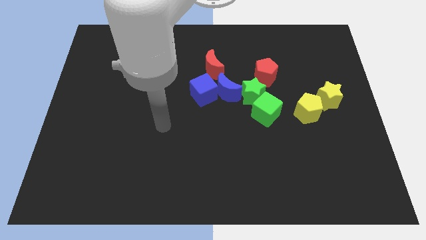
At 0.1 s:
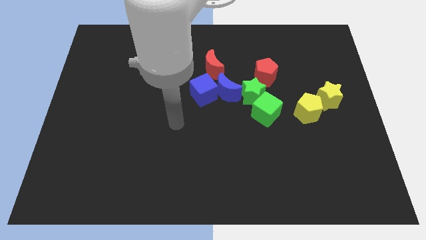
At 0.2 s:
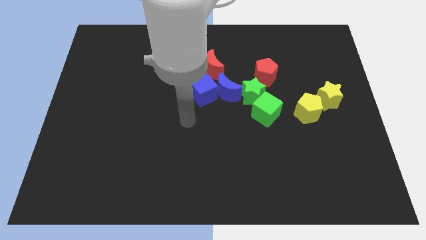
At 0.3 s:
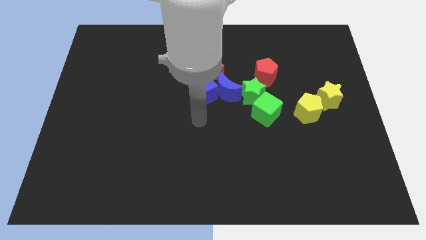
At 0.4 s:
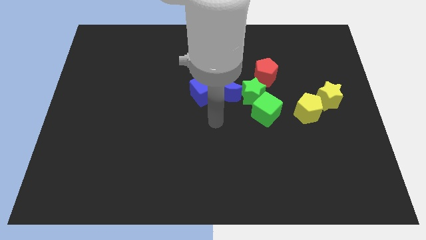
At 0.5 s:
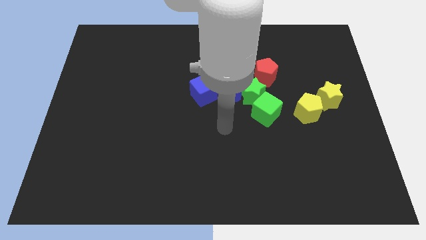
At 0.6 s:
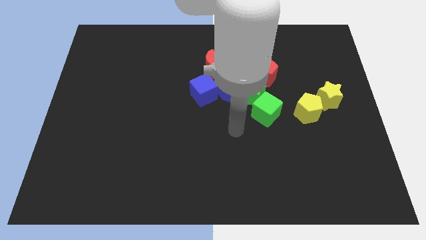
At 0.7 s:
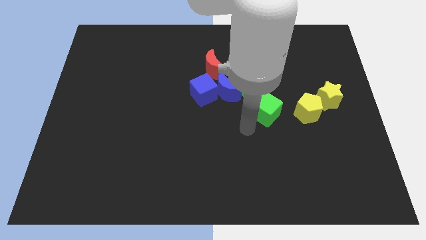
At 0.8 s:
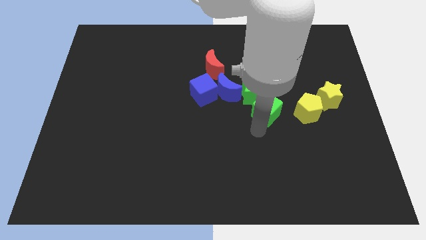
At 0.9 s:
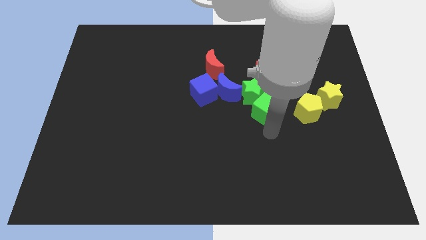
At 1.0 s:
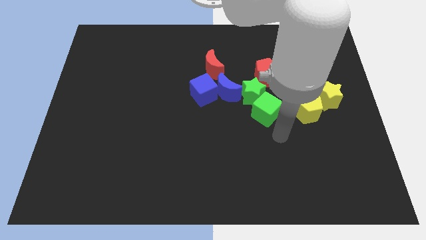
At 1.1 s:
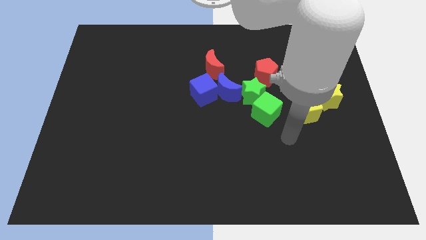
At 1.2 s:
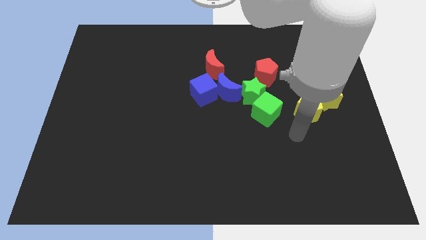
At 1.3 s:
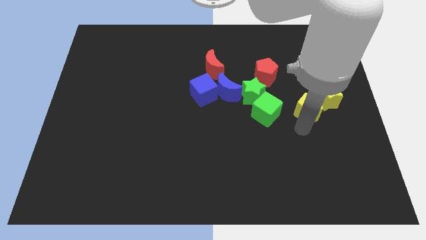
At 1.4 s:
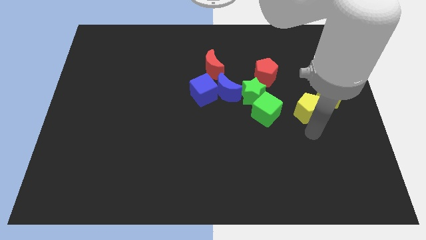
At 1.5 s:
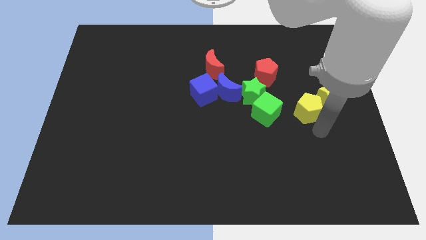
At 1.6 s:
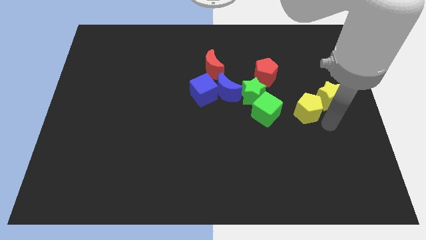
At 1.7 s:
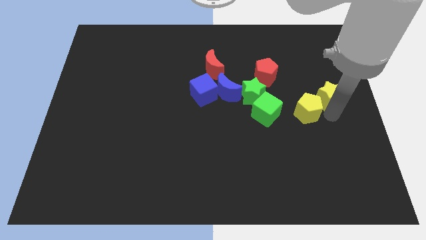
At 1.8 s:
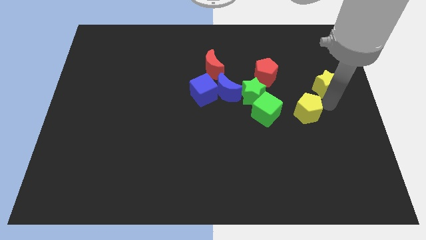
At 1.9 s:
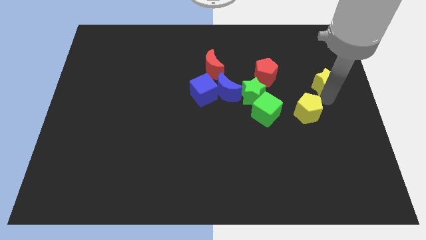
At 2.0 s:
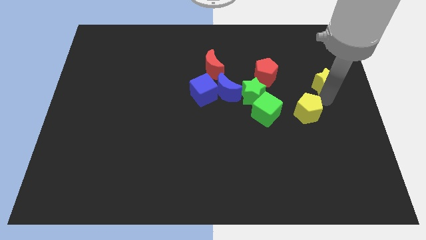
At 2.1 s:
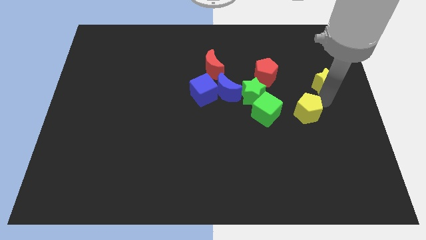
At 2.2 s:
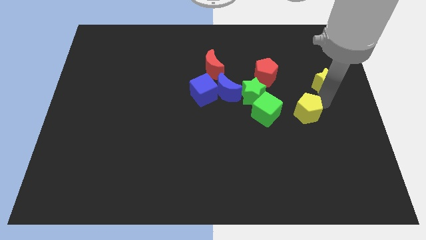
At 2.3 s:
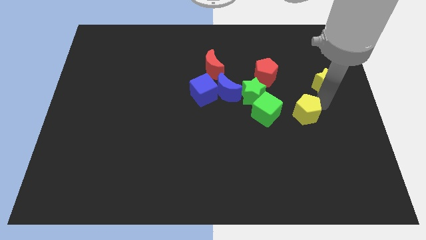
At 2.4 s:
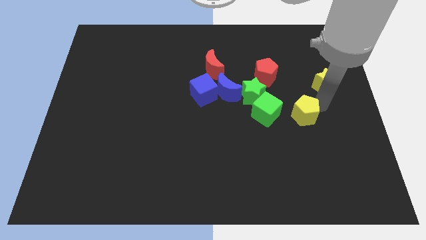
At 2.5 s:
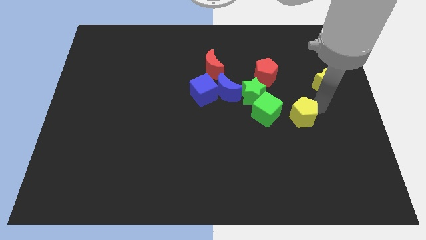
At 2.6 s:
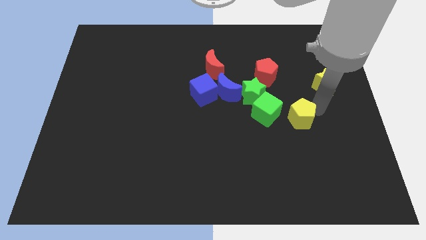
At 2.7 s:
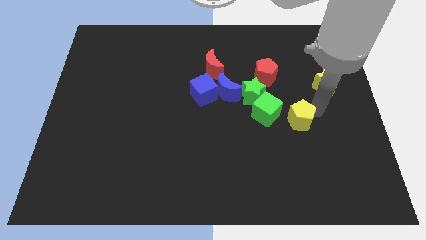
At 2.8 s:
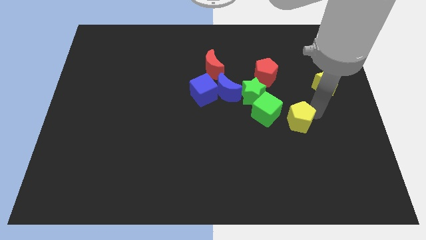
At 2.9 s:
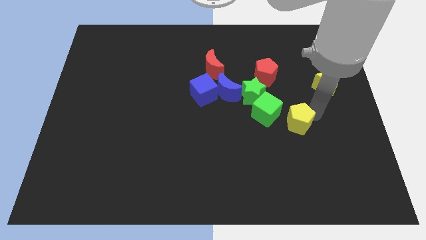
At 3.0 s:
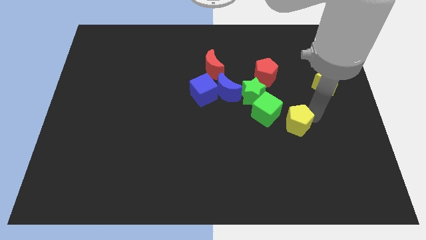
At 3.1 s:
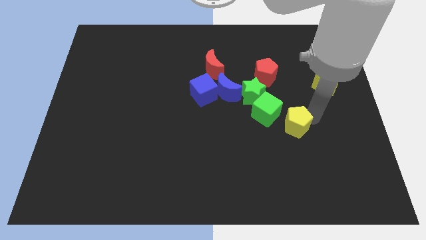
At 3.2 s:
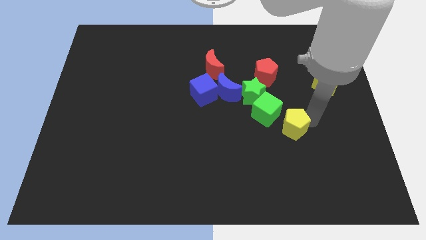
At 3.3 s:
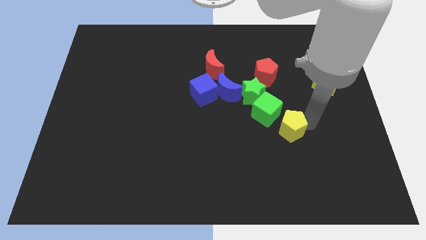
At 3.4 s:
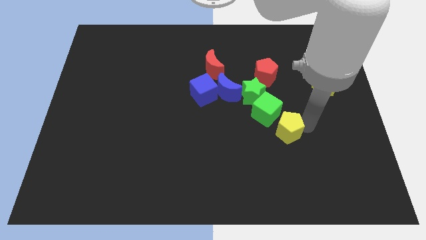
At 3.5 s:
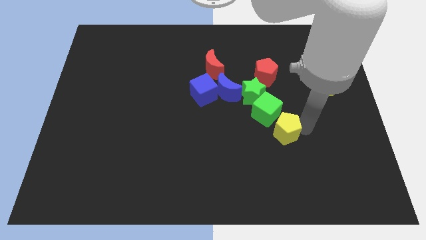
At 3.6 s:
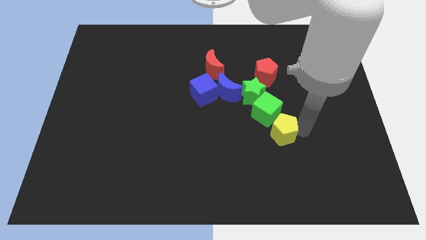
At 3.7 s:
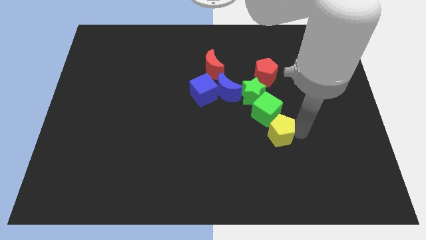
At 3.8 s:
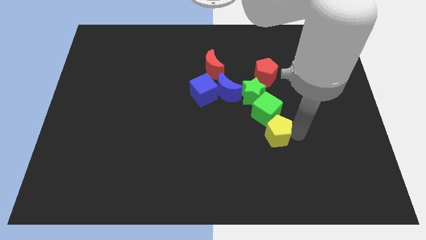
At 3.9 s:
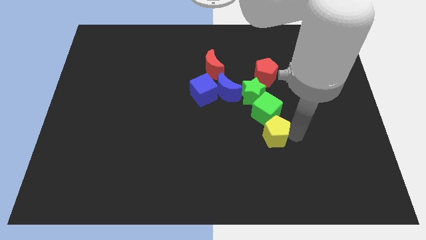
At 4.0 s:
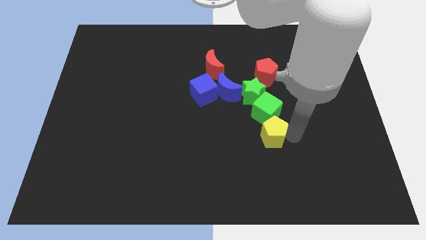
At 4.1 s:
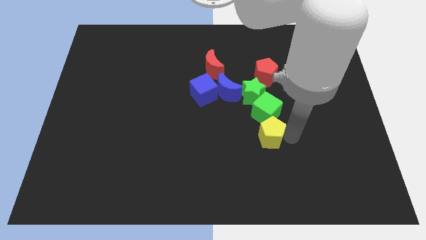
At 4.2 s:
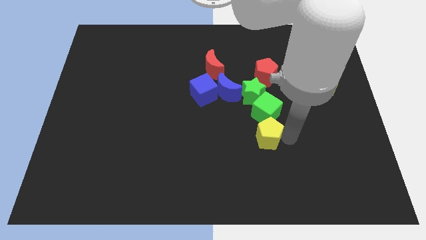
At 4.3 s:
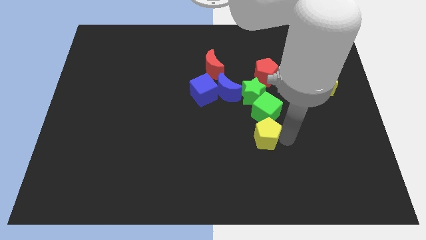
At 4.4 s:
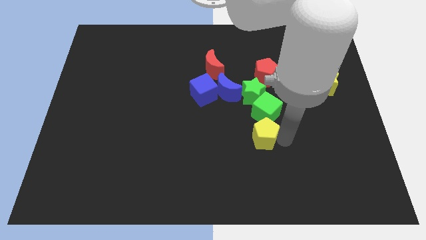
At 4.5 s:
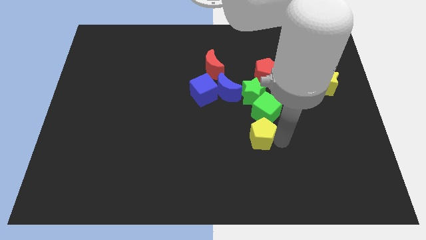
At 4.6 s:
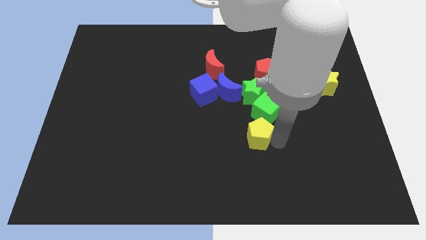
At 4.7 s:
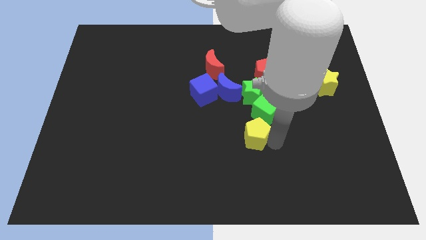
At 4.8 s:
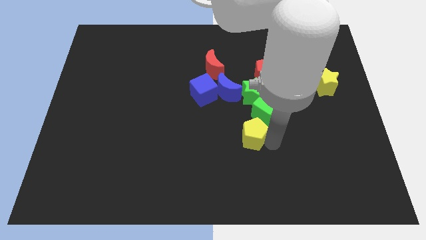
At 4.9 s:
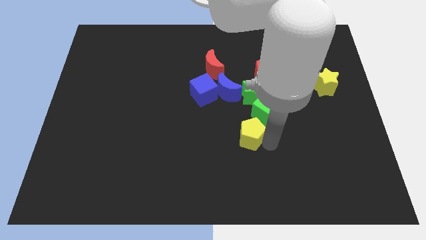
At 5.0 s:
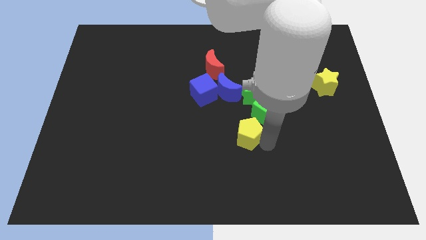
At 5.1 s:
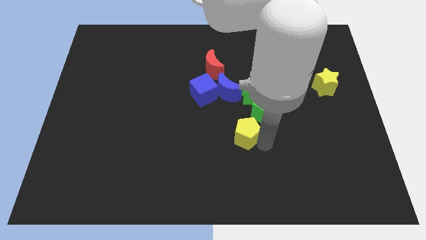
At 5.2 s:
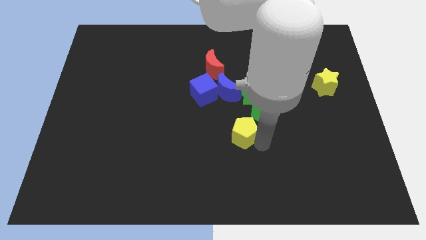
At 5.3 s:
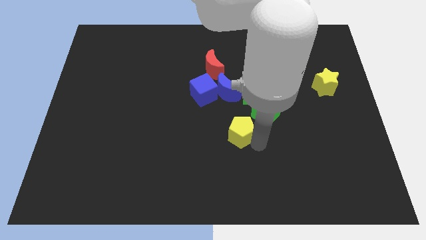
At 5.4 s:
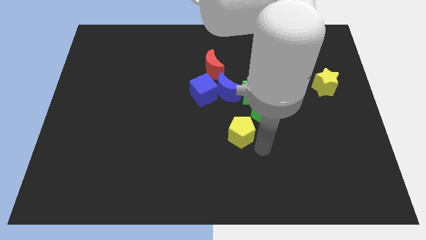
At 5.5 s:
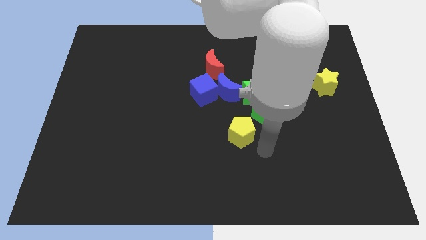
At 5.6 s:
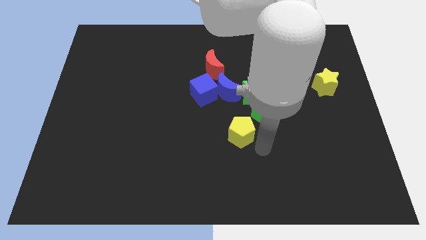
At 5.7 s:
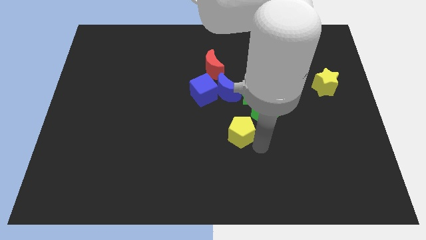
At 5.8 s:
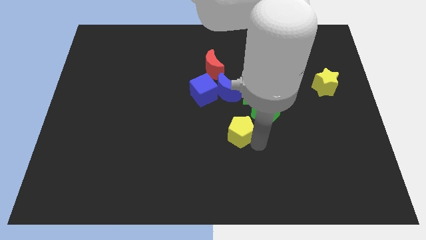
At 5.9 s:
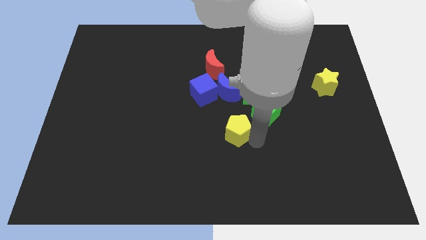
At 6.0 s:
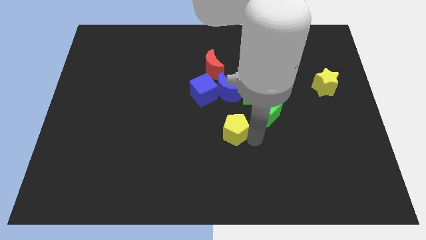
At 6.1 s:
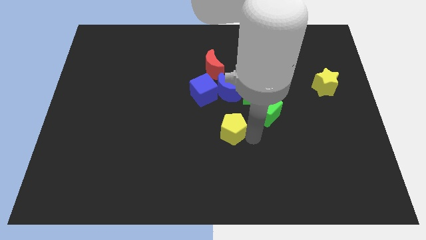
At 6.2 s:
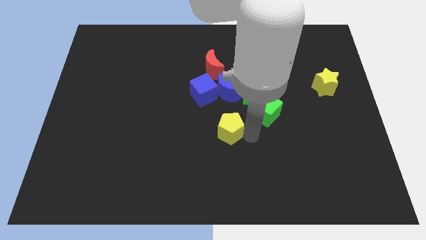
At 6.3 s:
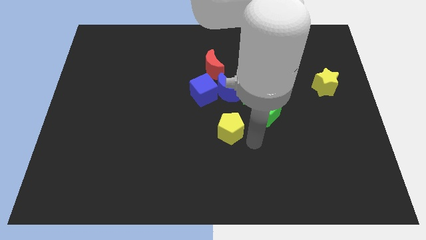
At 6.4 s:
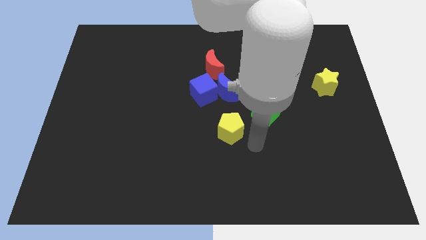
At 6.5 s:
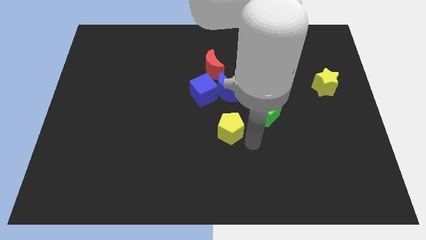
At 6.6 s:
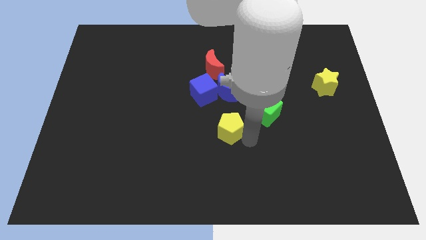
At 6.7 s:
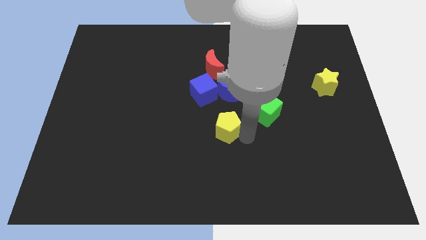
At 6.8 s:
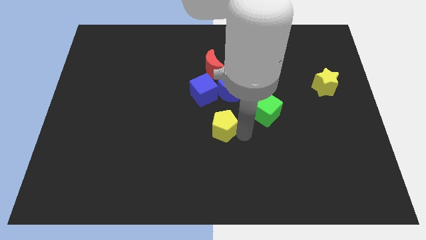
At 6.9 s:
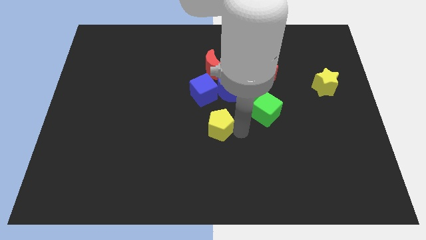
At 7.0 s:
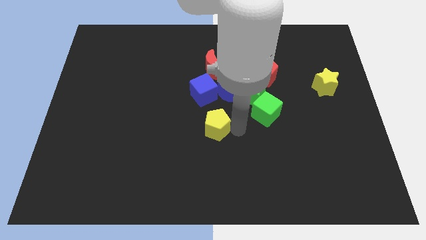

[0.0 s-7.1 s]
slide the yellow pentagon left

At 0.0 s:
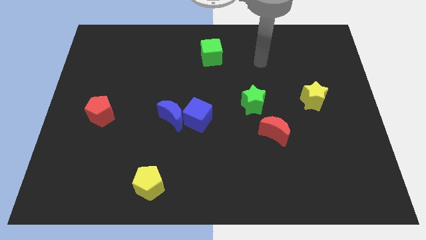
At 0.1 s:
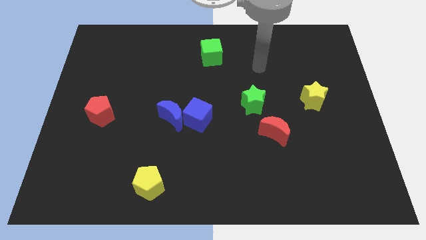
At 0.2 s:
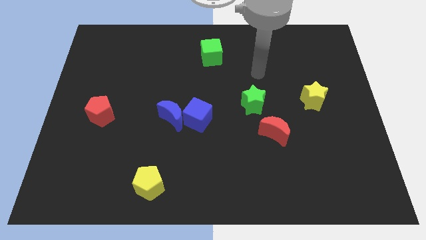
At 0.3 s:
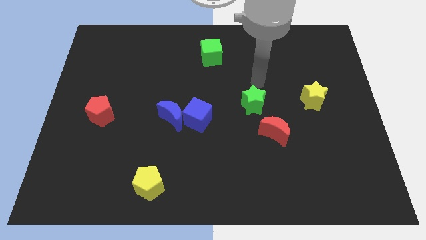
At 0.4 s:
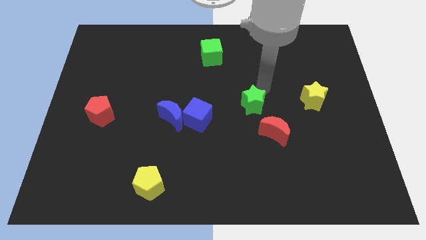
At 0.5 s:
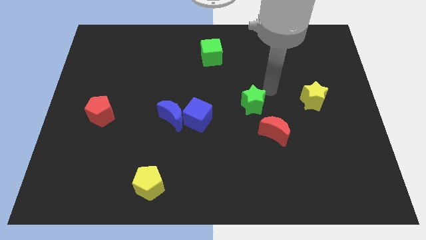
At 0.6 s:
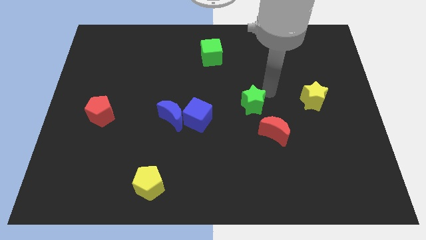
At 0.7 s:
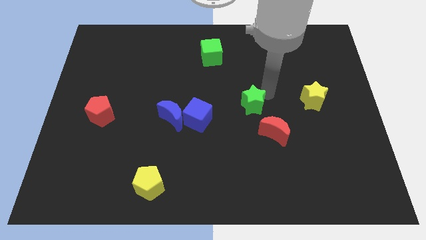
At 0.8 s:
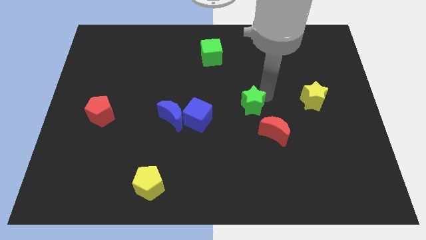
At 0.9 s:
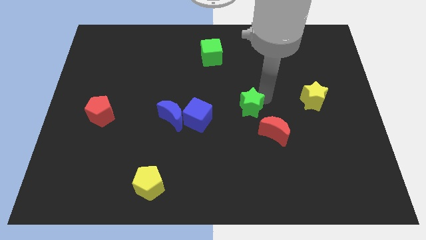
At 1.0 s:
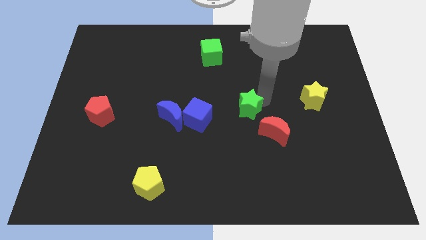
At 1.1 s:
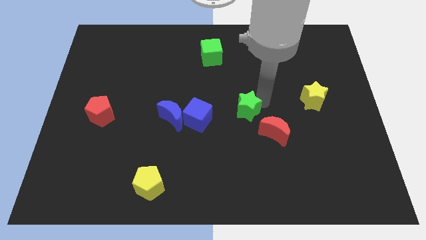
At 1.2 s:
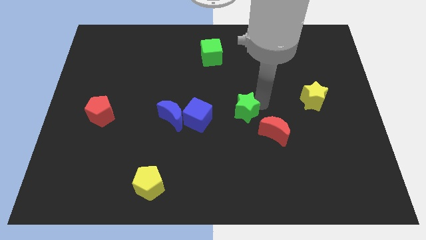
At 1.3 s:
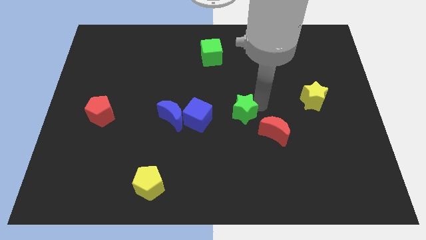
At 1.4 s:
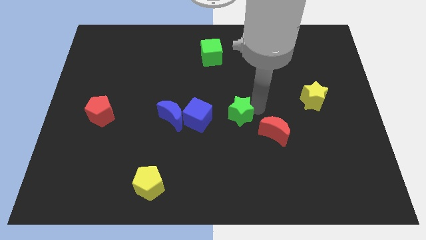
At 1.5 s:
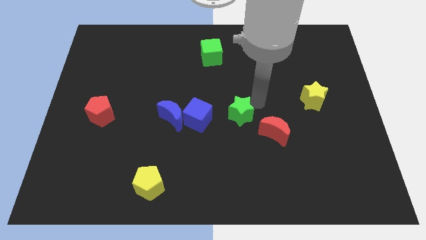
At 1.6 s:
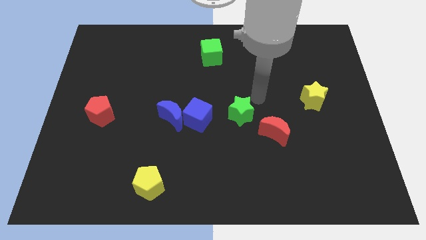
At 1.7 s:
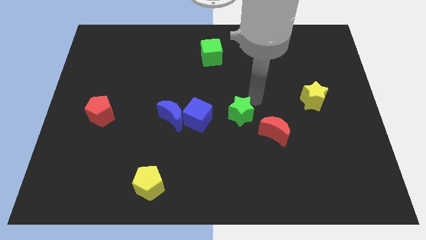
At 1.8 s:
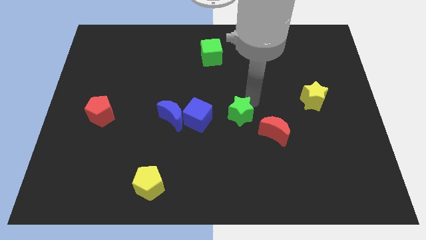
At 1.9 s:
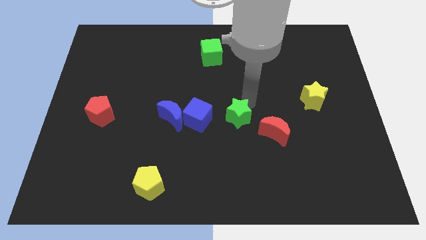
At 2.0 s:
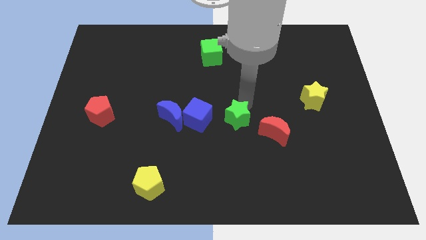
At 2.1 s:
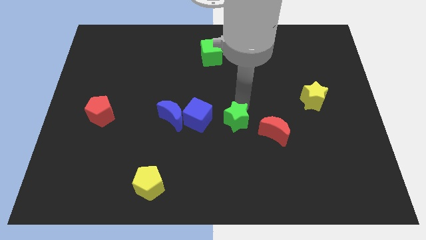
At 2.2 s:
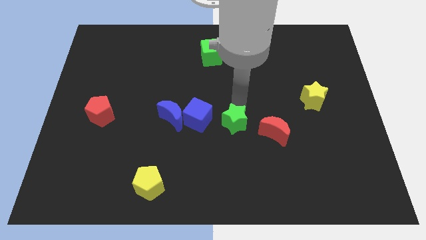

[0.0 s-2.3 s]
slide the green star downwards and then to the left a little
